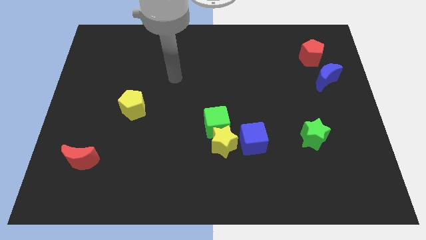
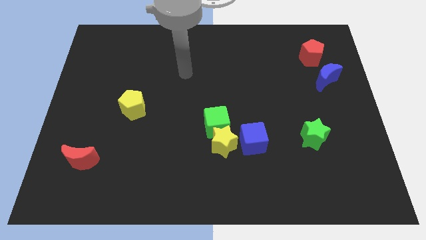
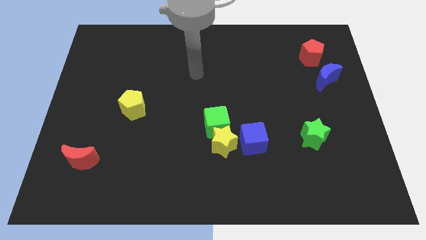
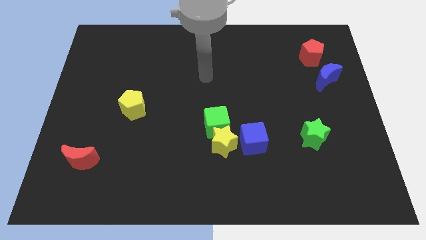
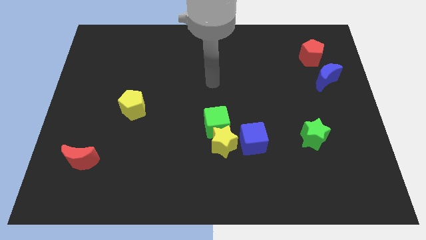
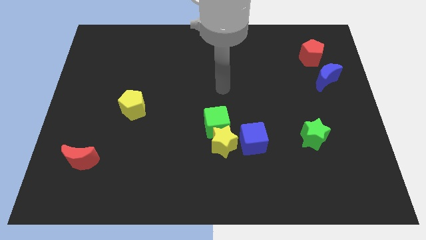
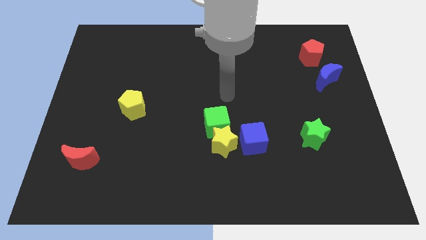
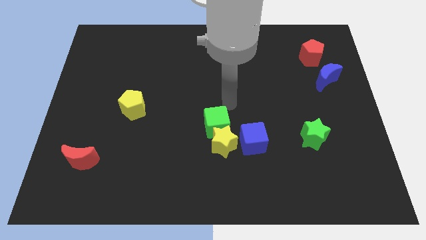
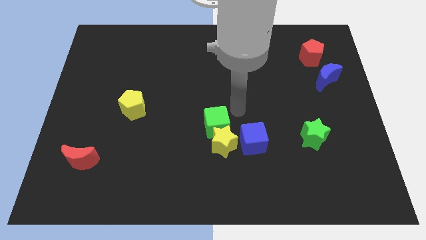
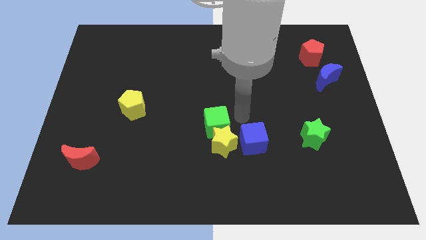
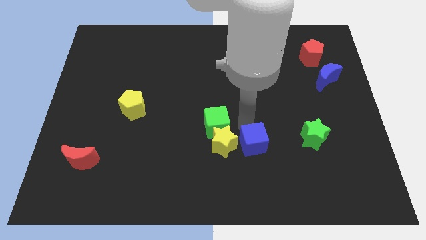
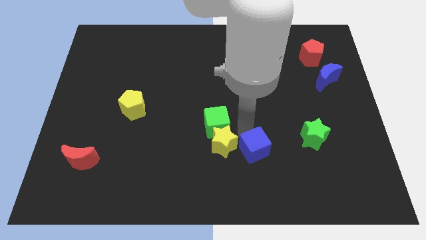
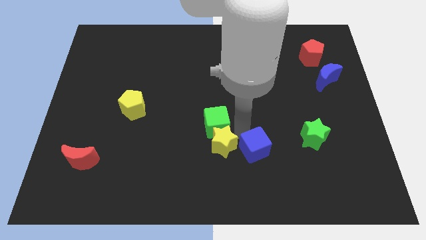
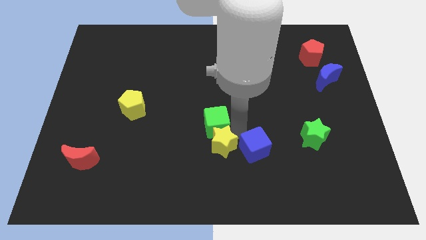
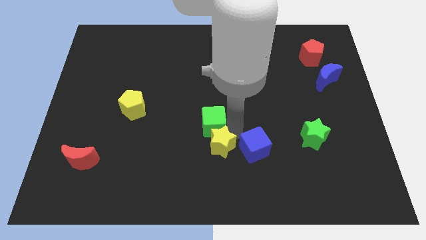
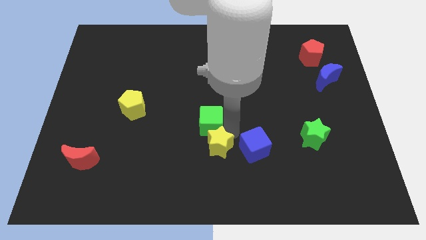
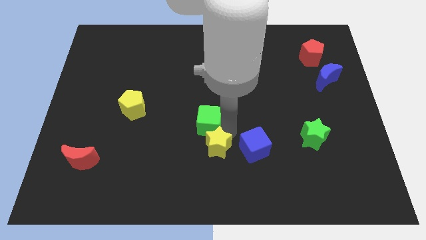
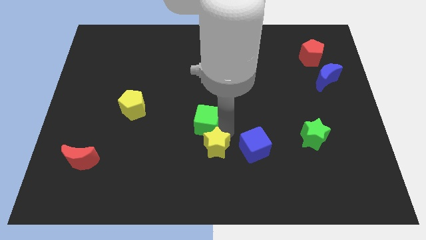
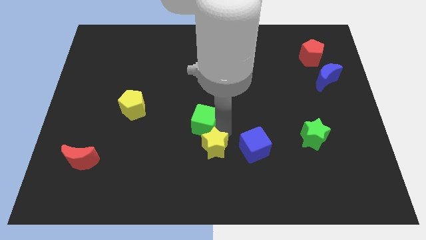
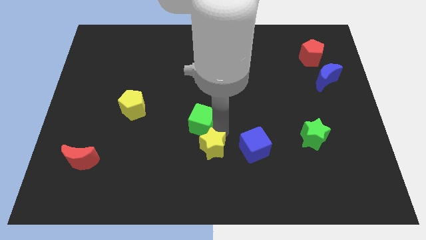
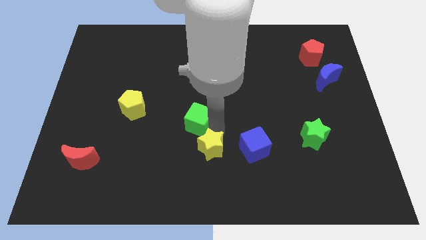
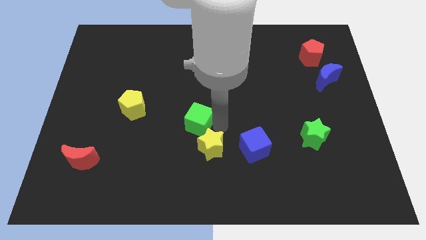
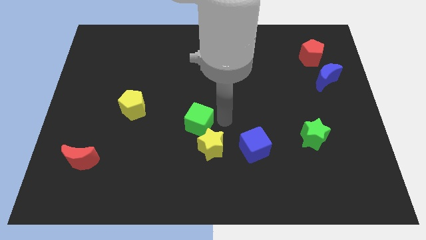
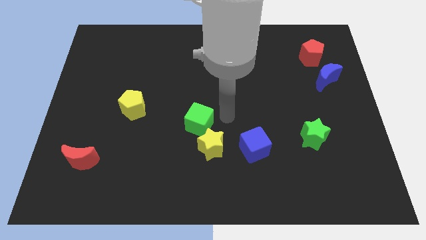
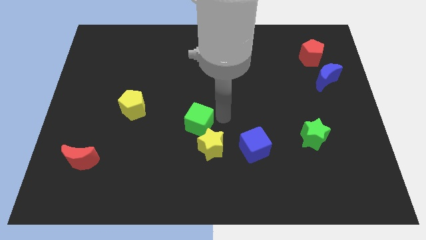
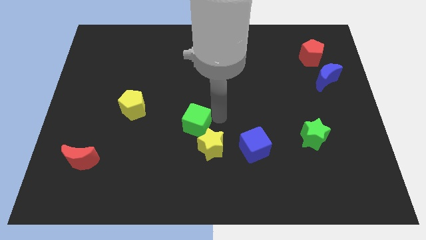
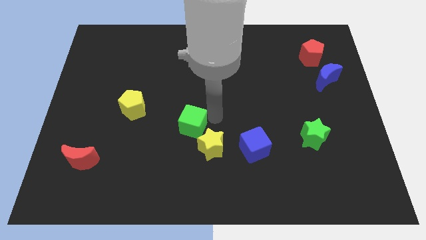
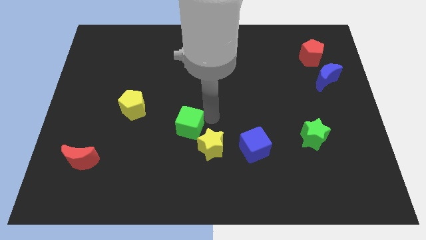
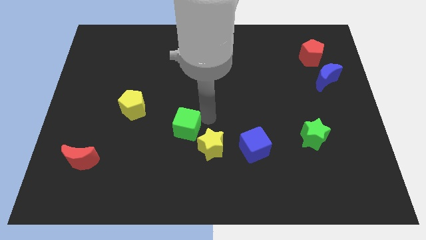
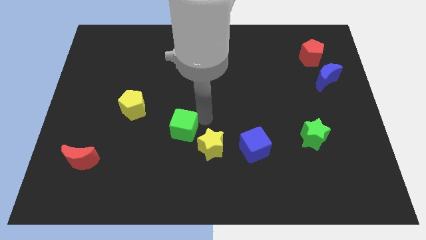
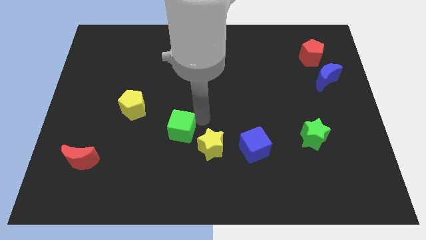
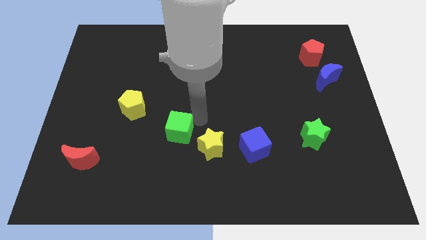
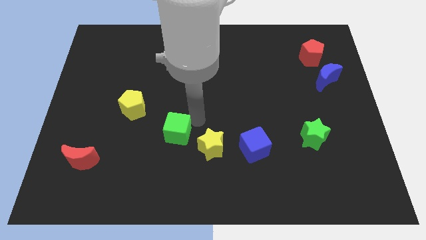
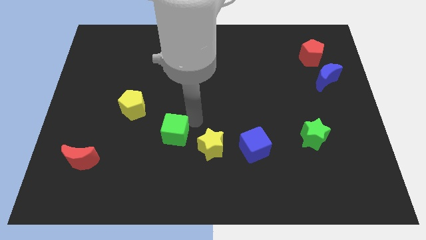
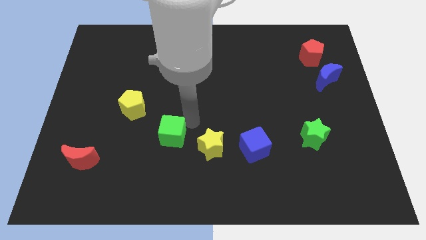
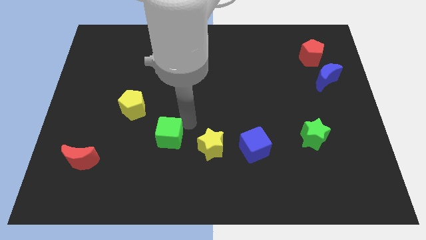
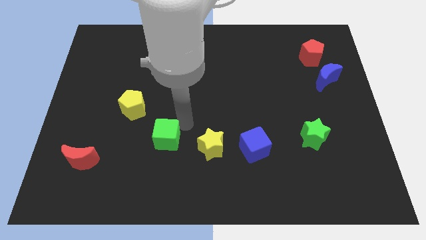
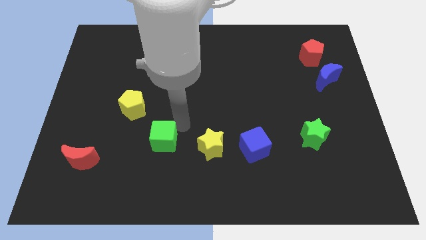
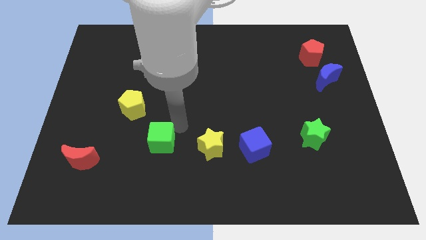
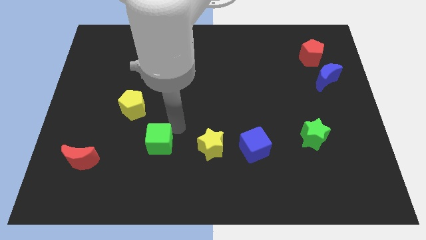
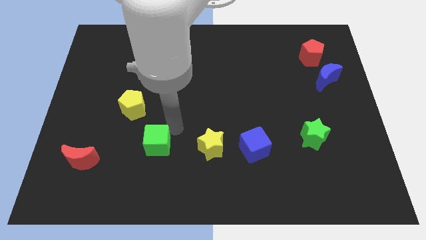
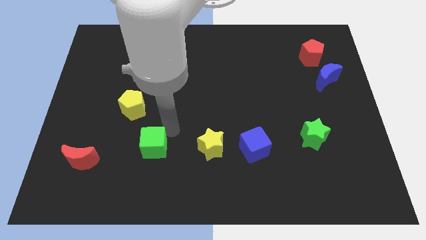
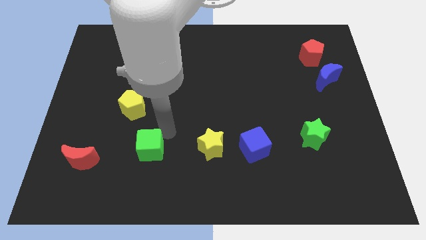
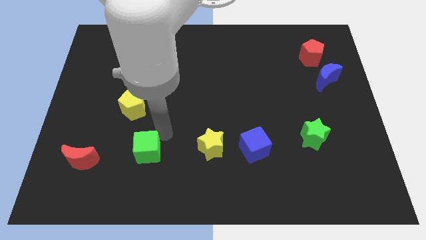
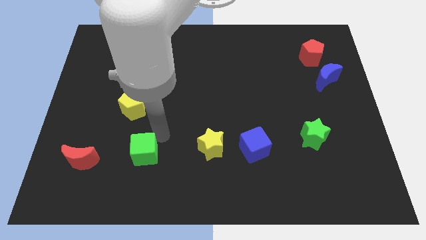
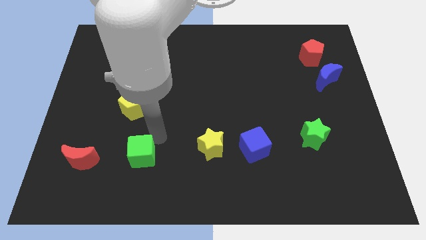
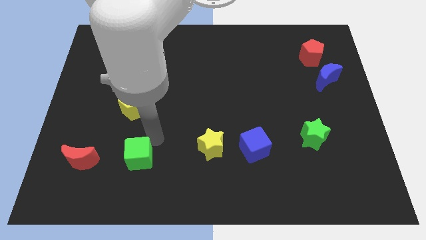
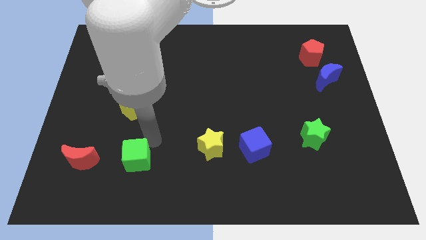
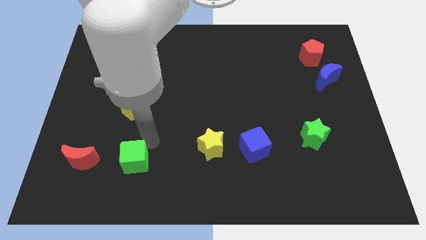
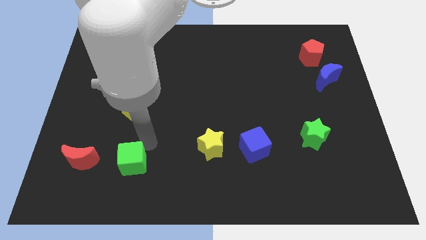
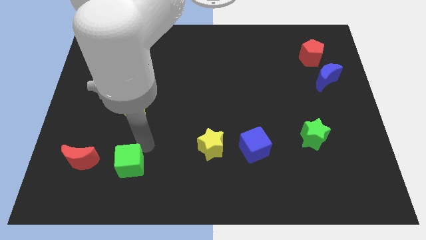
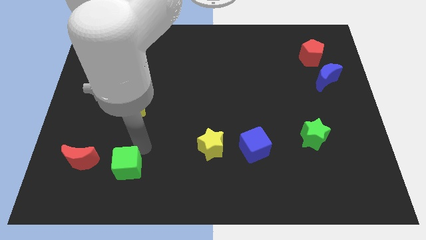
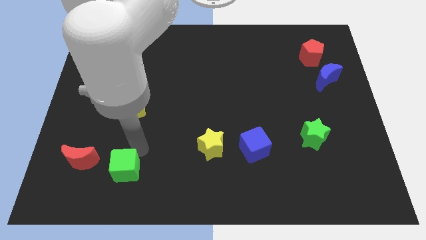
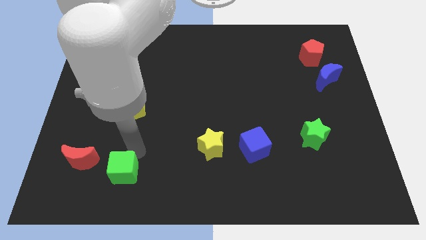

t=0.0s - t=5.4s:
move the green cube diagonally down and to the right of the red moon

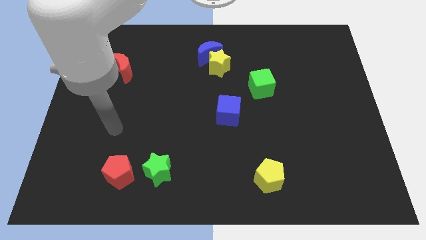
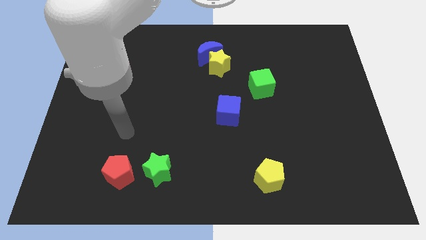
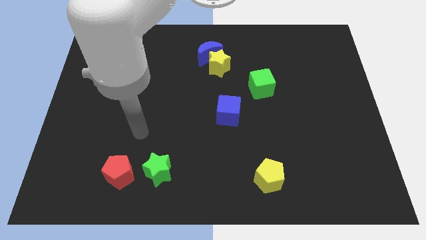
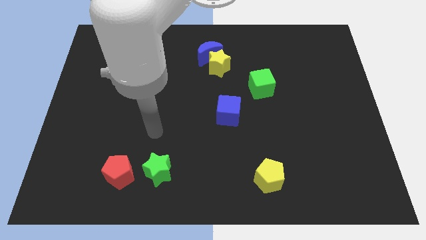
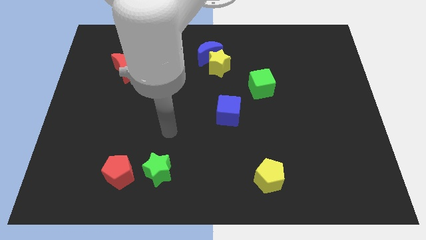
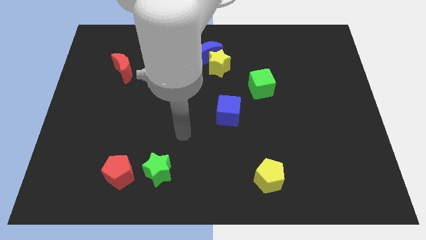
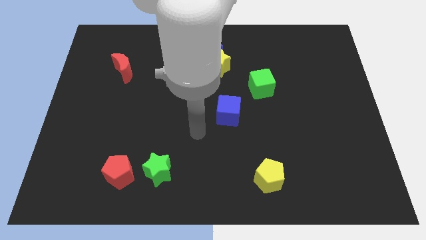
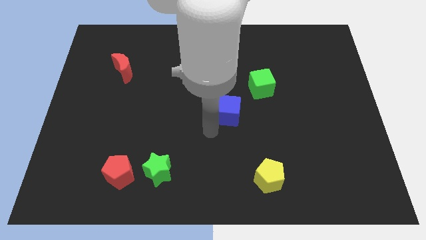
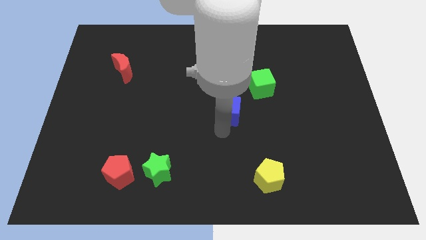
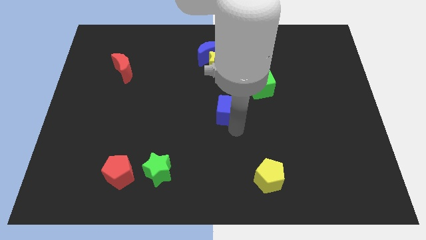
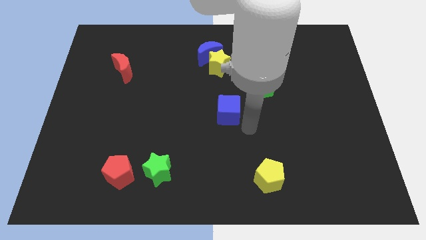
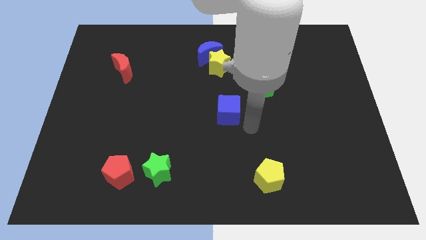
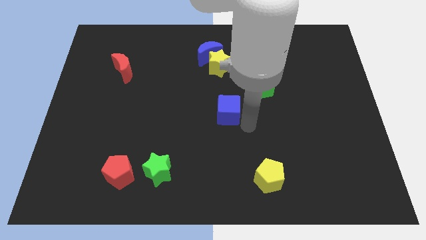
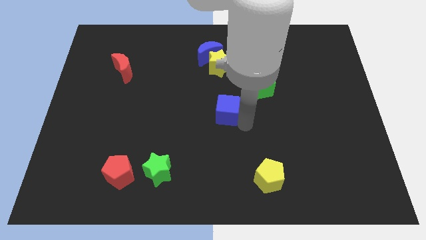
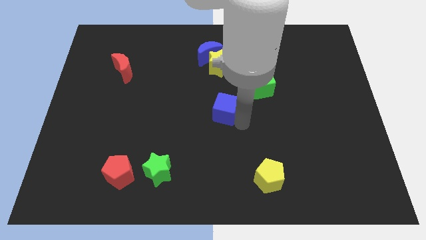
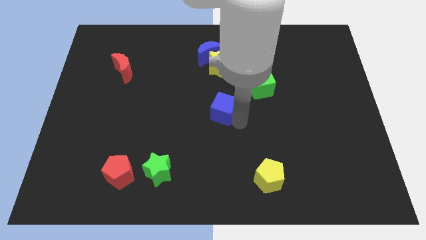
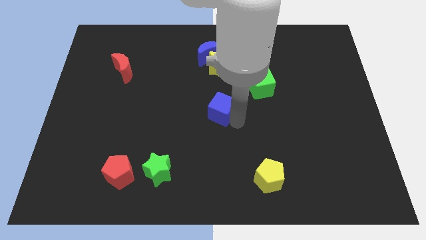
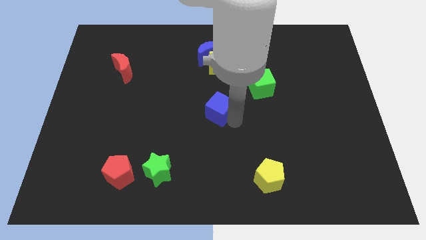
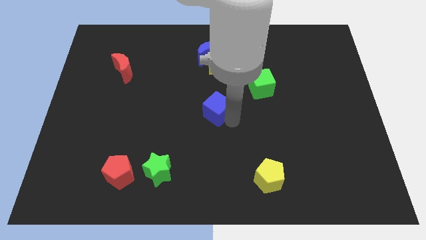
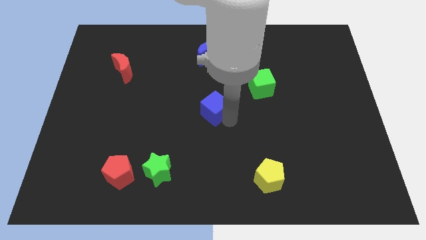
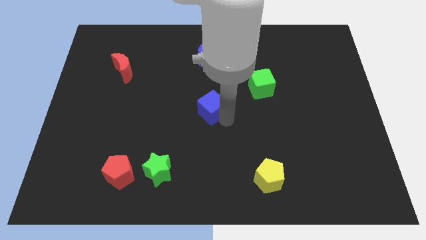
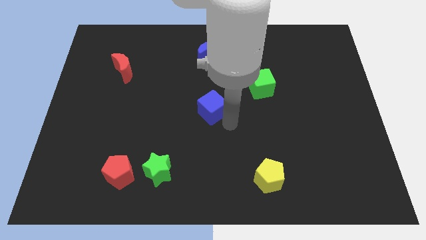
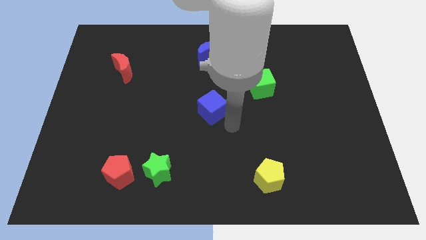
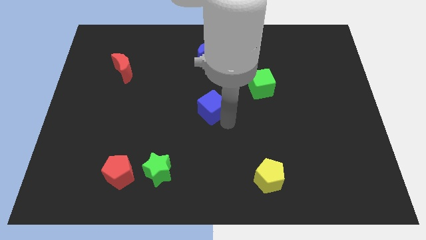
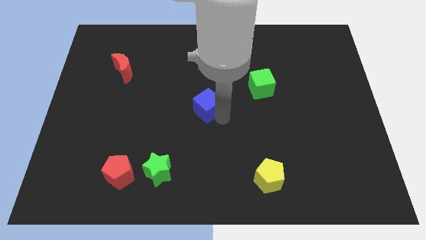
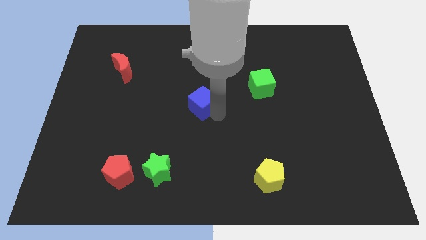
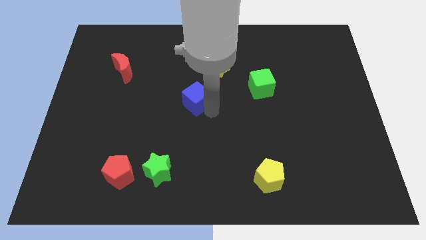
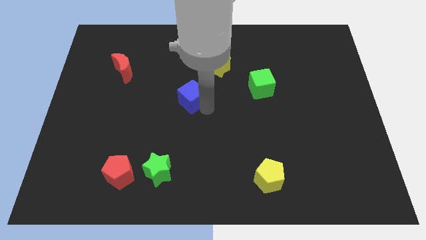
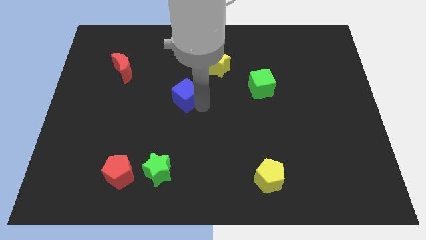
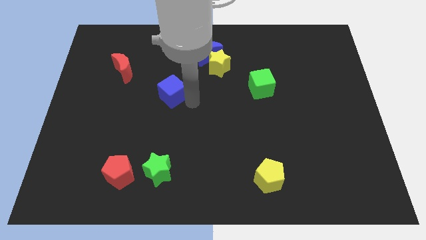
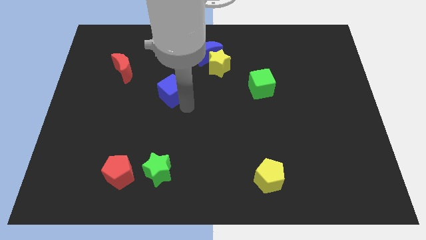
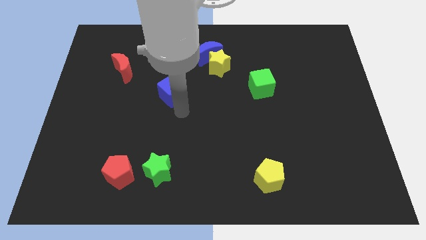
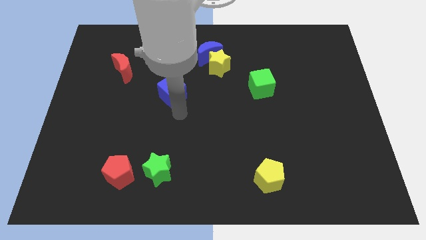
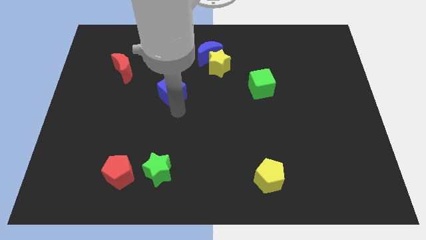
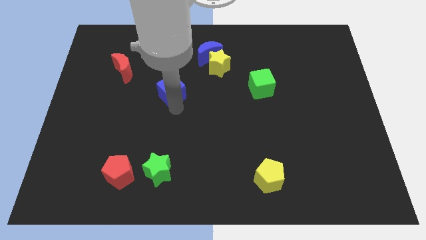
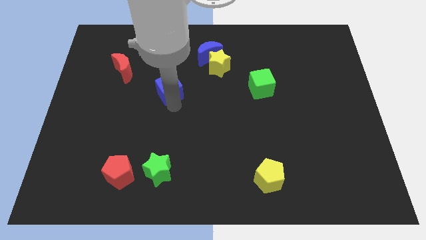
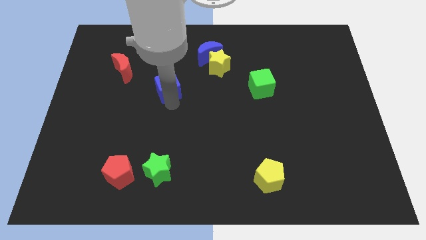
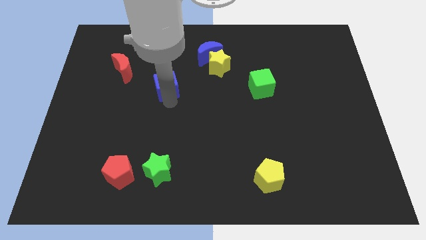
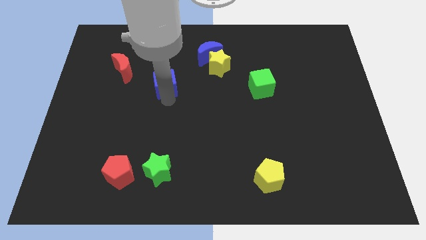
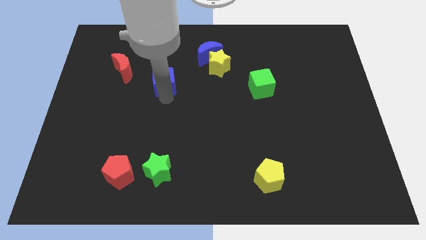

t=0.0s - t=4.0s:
push the blue cube just right of the red moon
